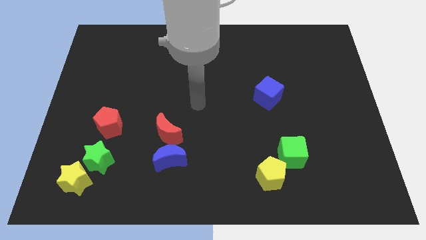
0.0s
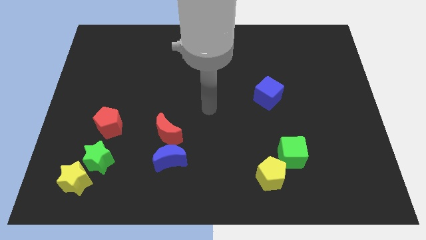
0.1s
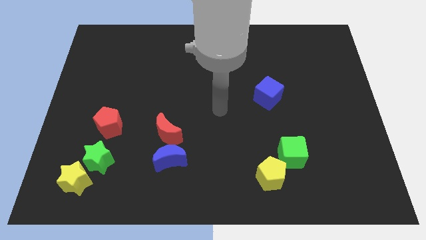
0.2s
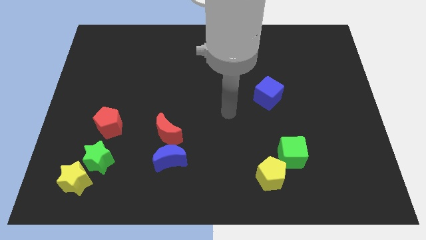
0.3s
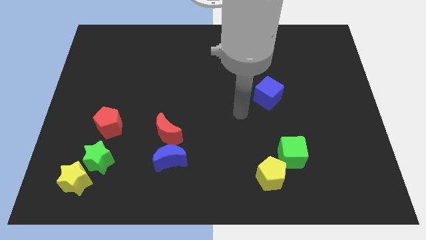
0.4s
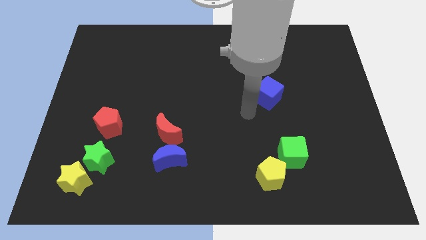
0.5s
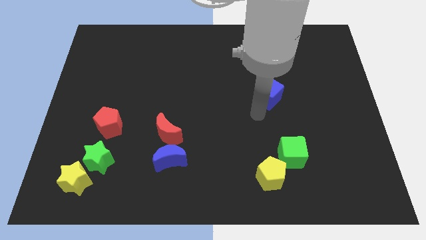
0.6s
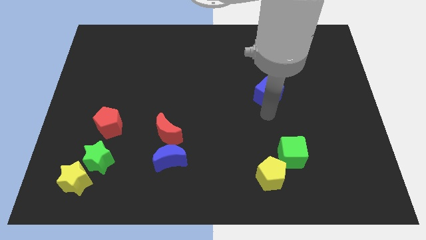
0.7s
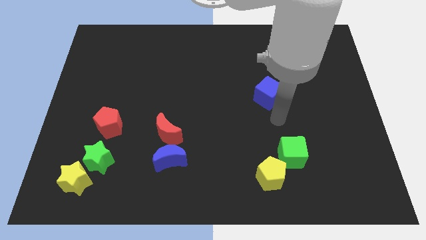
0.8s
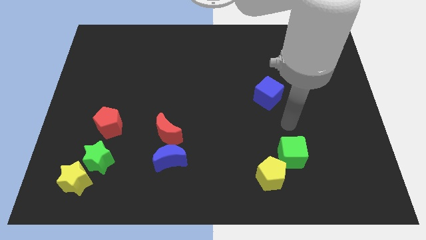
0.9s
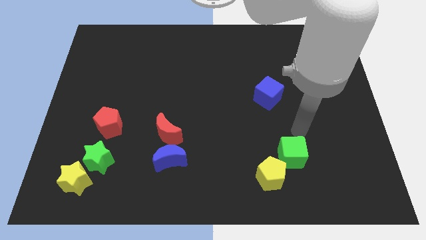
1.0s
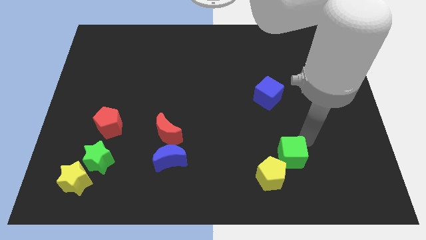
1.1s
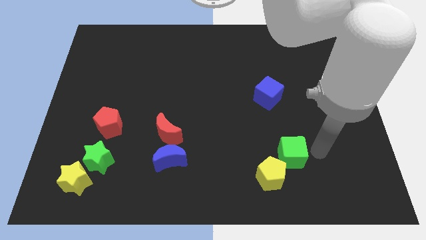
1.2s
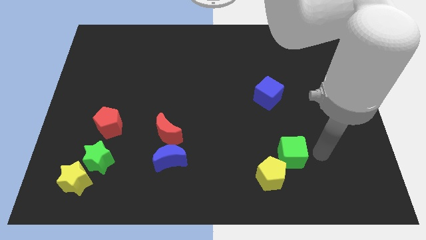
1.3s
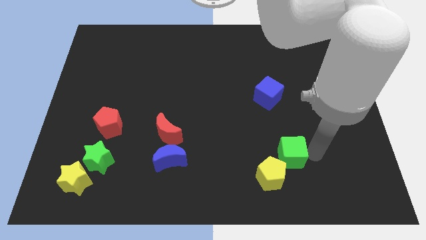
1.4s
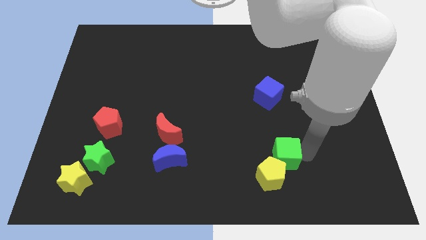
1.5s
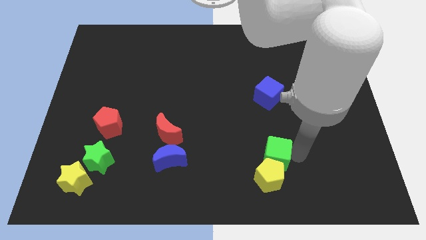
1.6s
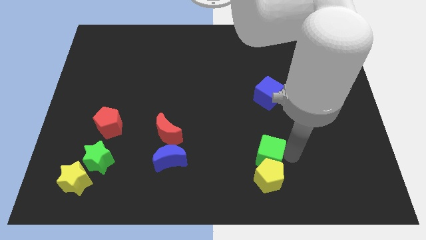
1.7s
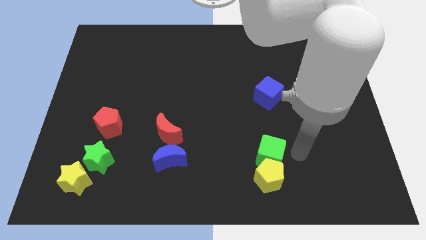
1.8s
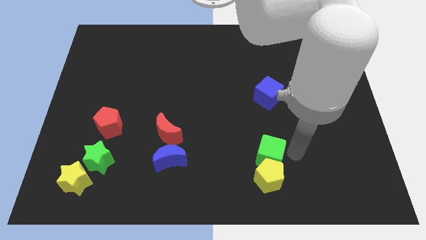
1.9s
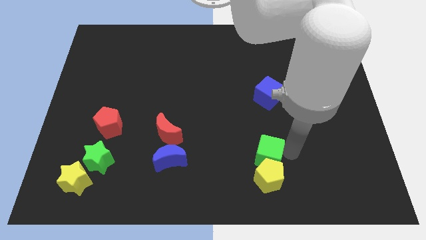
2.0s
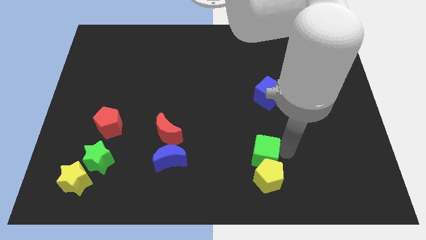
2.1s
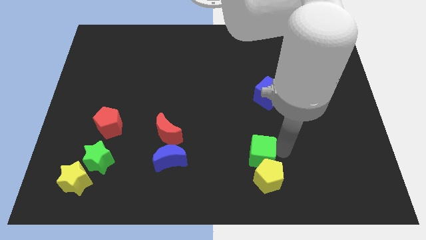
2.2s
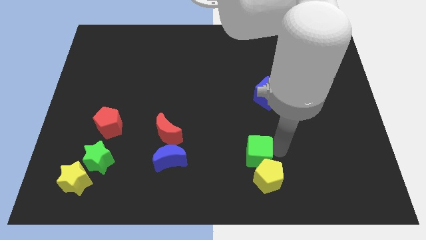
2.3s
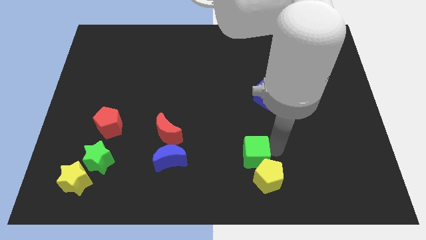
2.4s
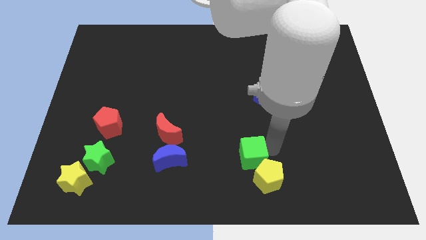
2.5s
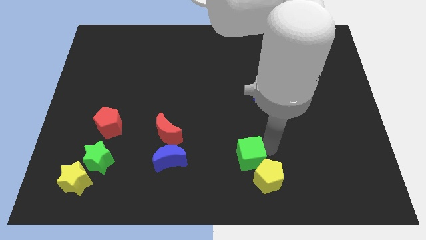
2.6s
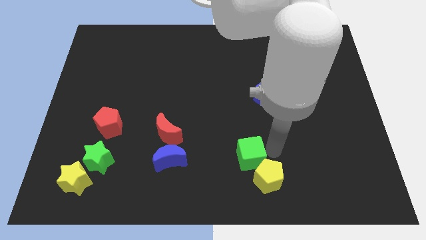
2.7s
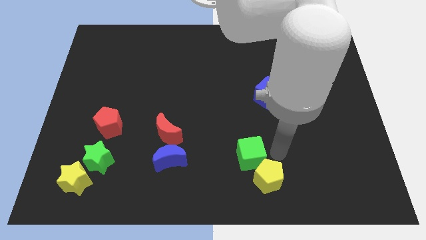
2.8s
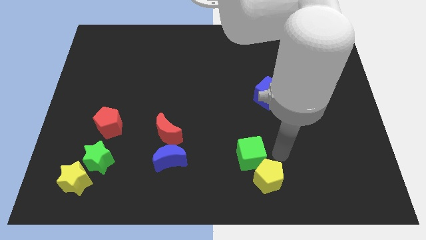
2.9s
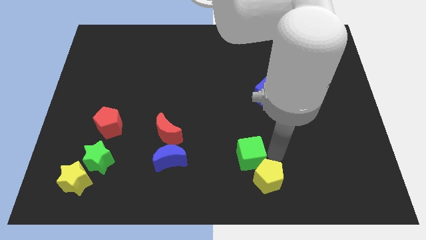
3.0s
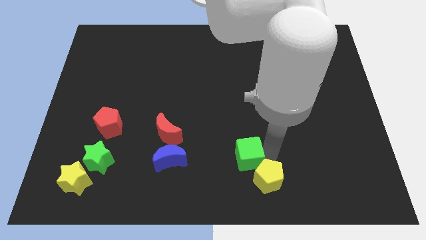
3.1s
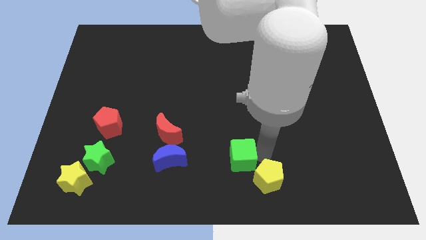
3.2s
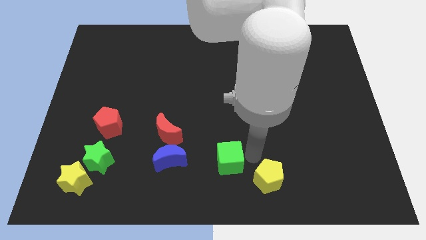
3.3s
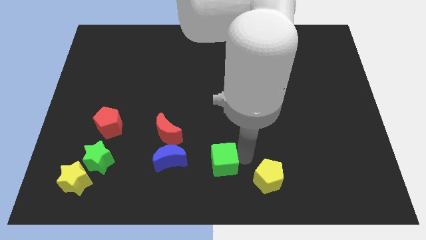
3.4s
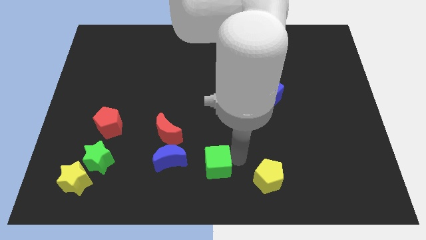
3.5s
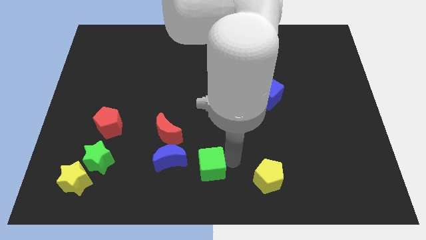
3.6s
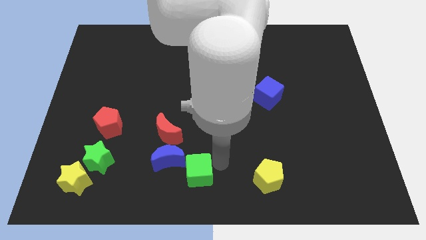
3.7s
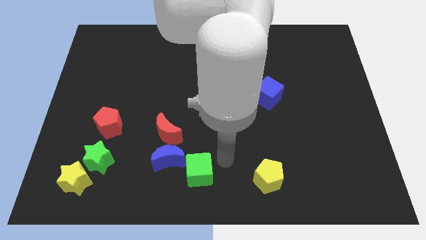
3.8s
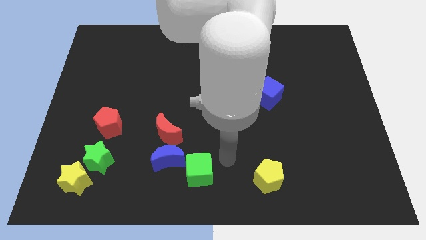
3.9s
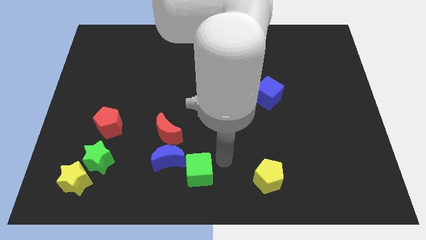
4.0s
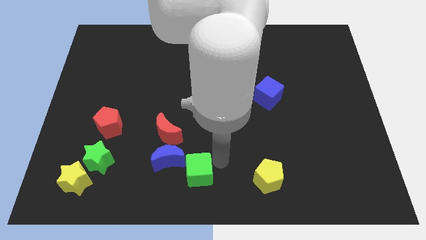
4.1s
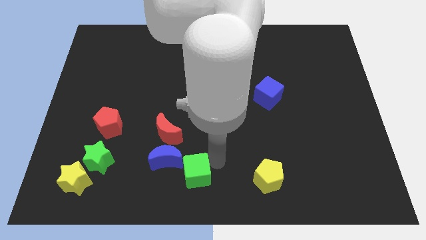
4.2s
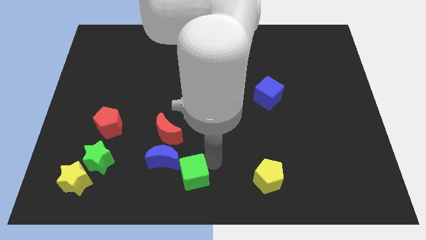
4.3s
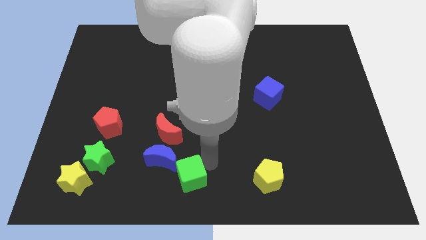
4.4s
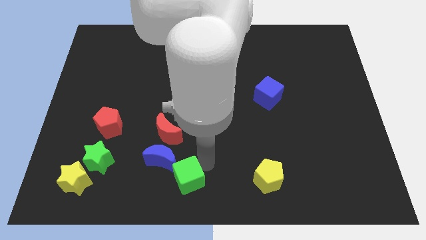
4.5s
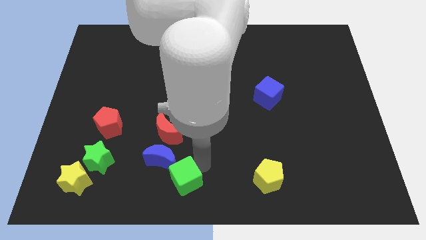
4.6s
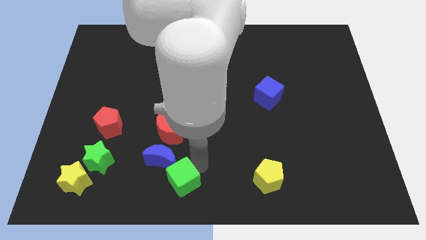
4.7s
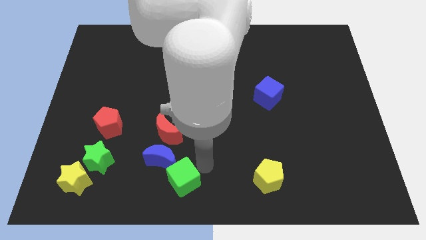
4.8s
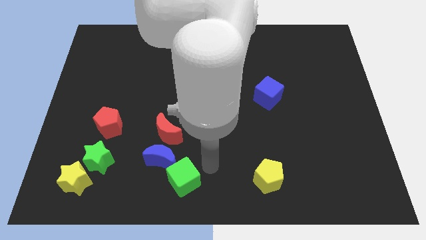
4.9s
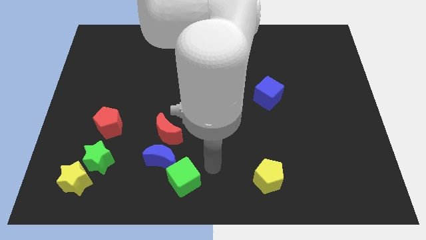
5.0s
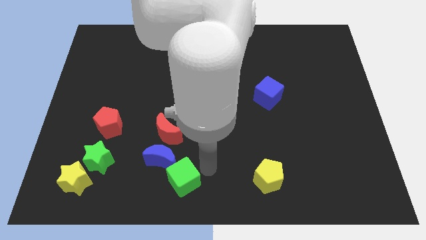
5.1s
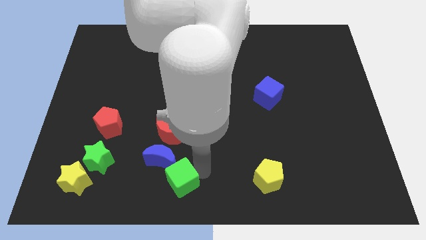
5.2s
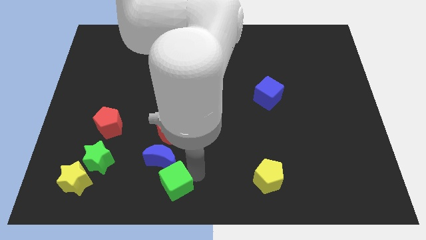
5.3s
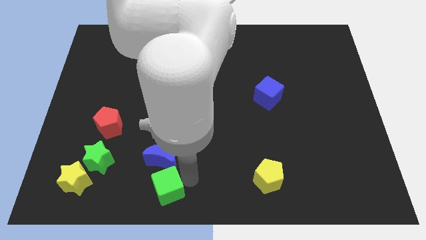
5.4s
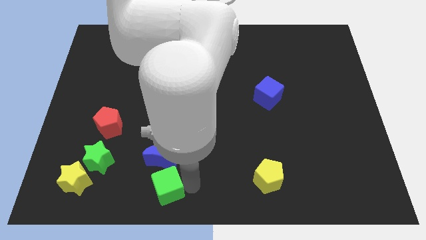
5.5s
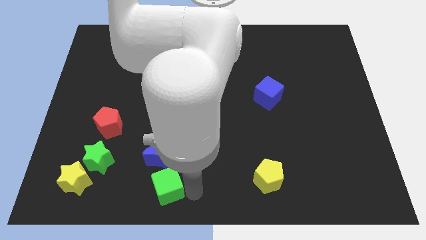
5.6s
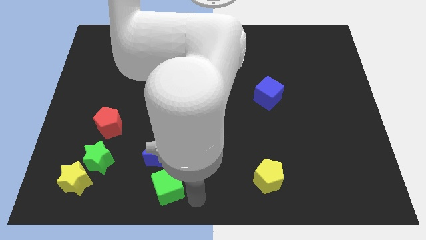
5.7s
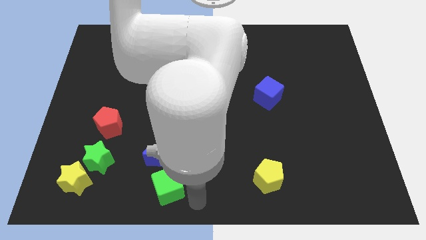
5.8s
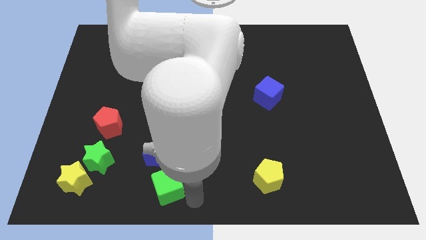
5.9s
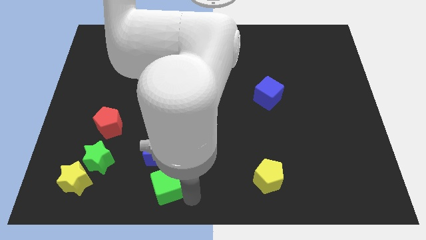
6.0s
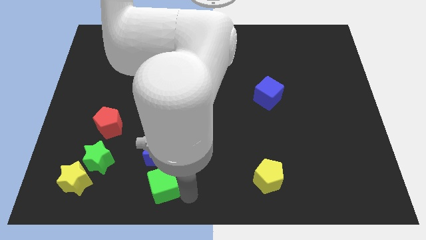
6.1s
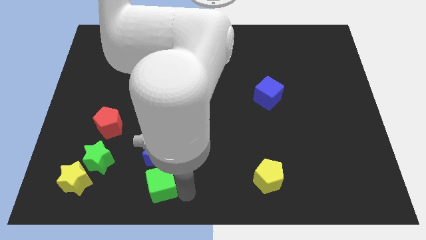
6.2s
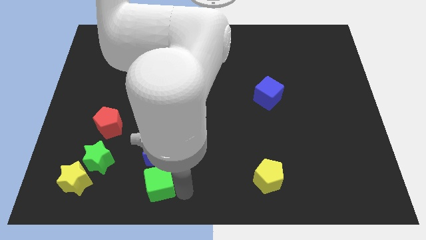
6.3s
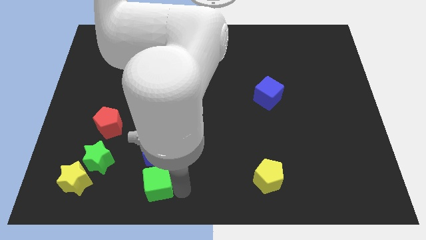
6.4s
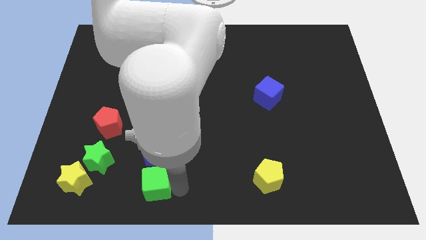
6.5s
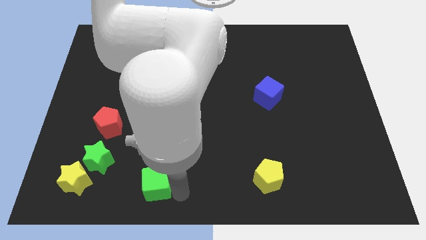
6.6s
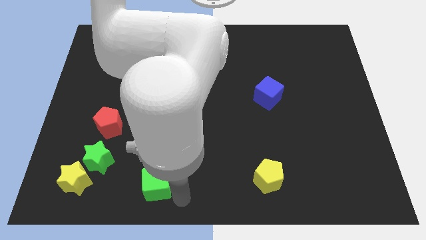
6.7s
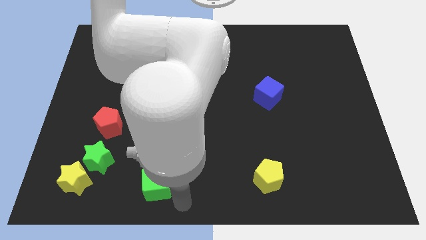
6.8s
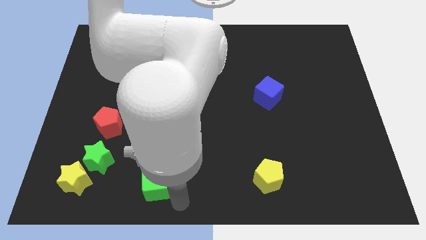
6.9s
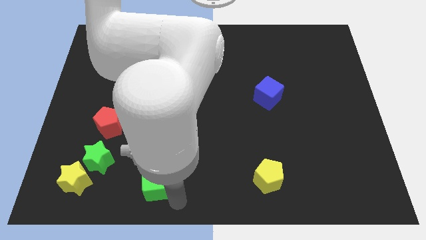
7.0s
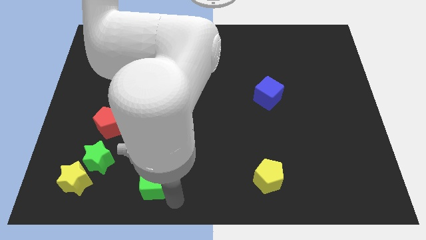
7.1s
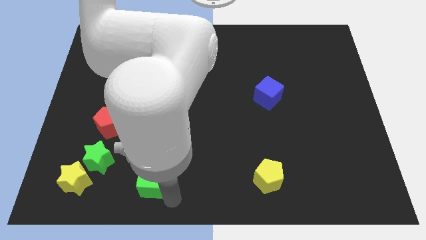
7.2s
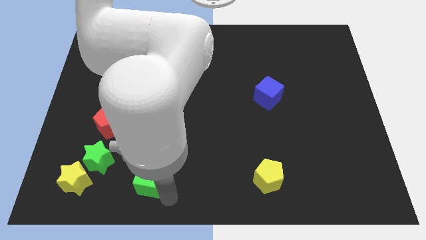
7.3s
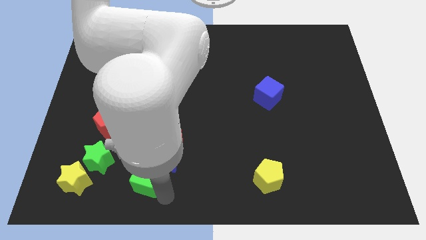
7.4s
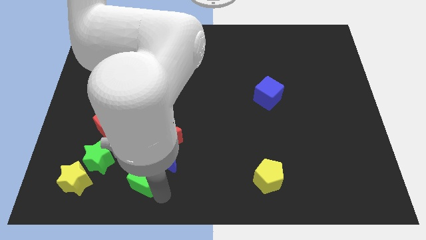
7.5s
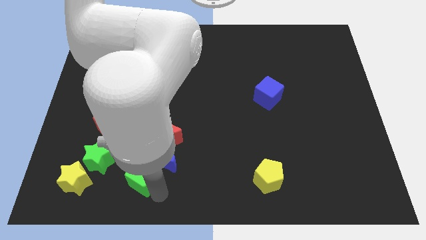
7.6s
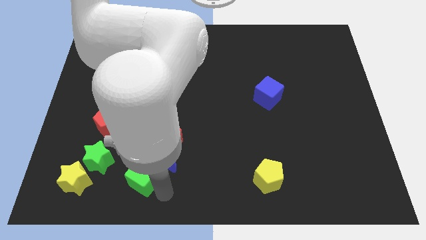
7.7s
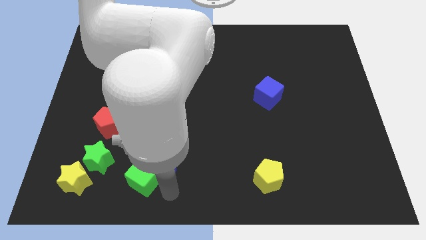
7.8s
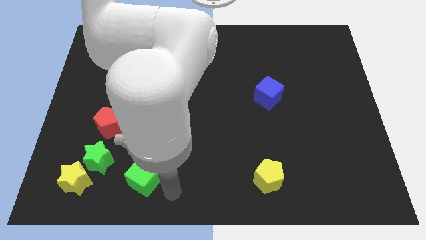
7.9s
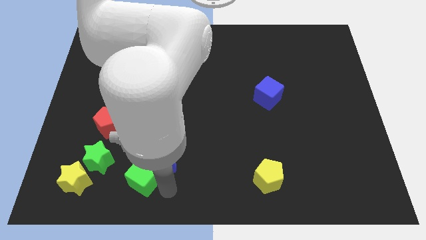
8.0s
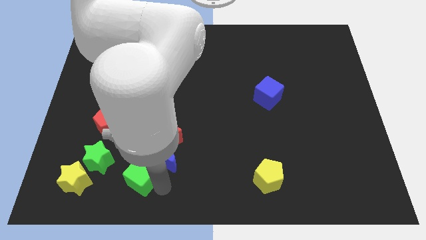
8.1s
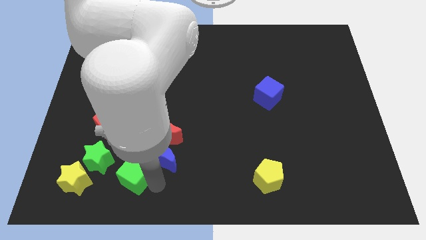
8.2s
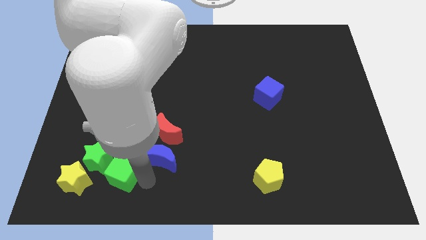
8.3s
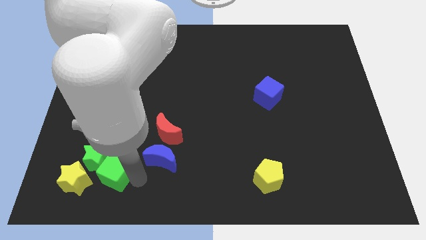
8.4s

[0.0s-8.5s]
put the green cube close to the green star
